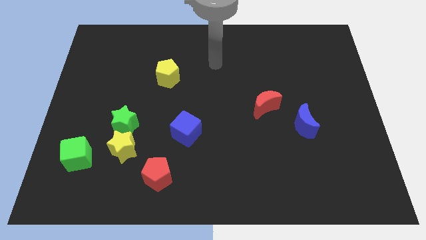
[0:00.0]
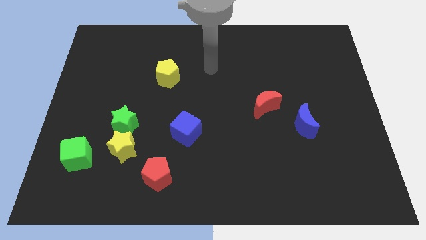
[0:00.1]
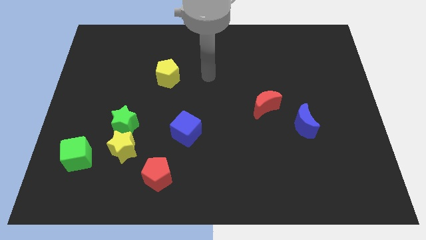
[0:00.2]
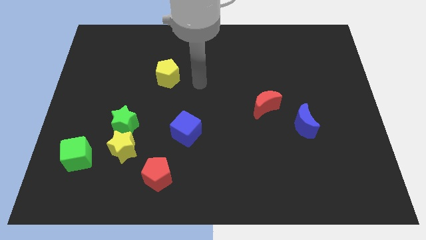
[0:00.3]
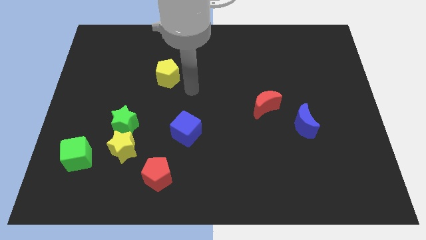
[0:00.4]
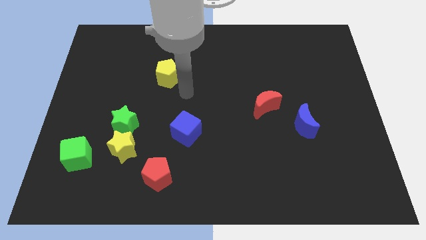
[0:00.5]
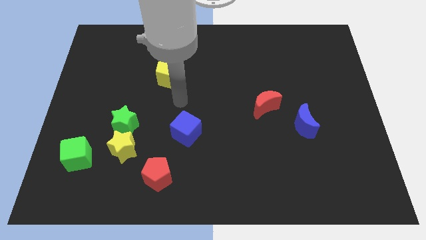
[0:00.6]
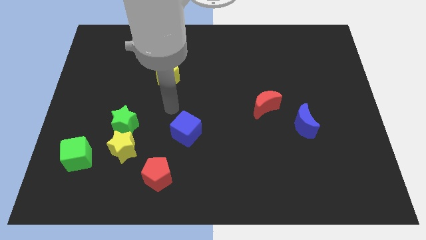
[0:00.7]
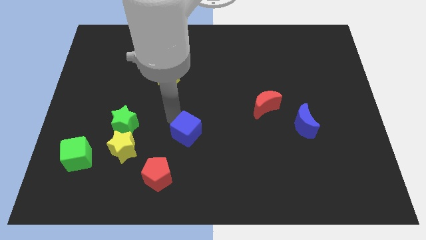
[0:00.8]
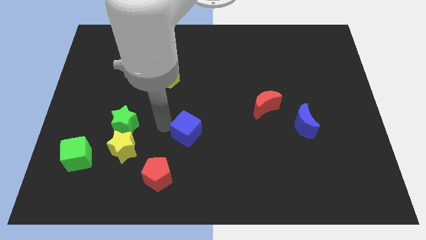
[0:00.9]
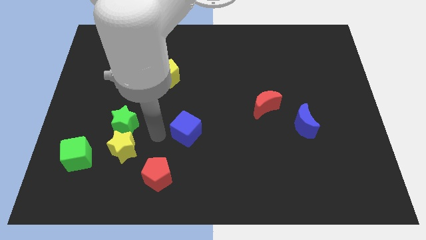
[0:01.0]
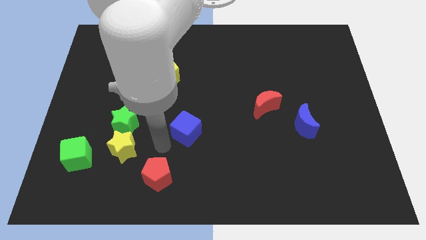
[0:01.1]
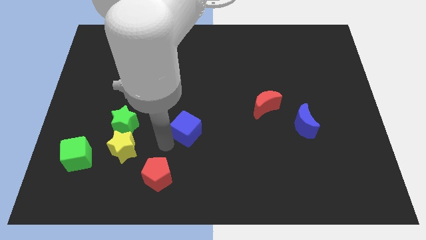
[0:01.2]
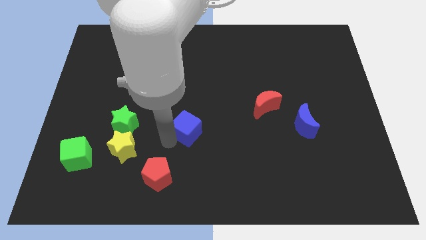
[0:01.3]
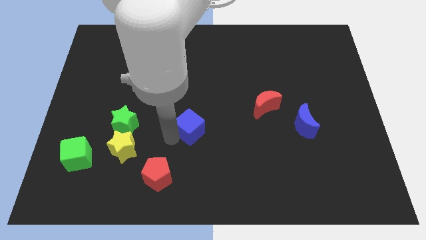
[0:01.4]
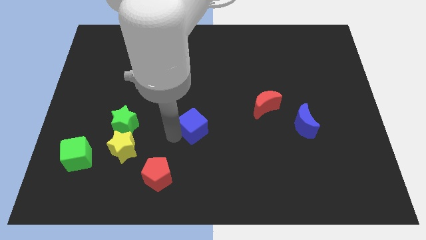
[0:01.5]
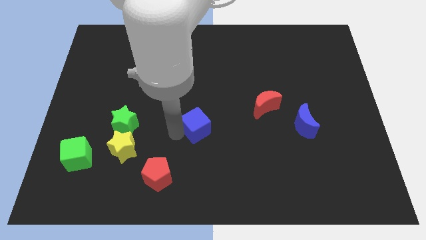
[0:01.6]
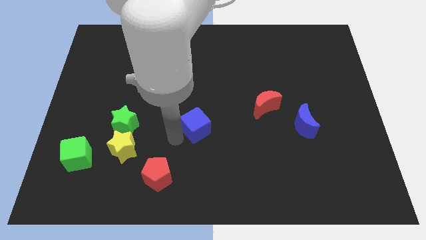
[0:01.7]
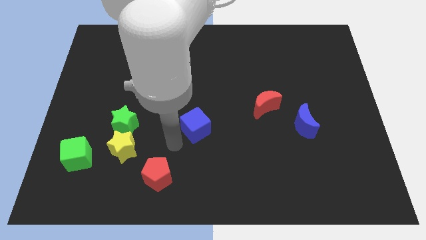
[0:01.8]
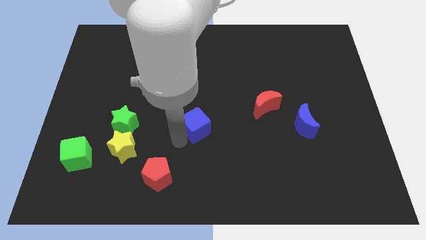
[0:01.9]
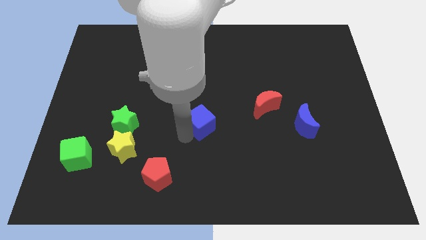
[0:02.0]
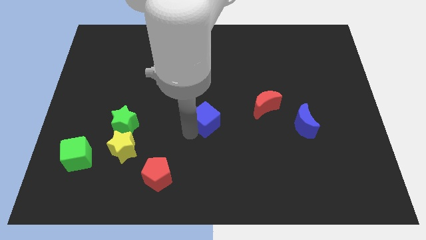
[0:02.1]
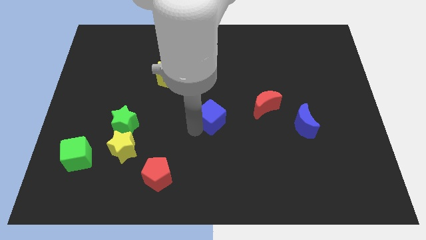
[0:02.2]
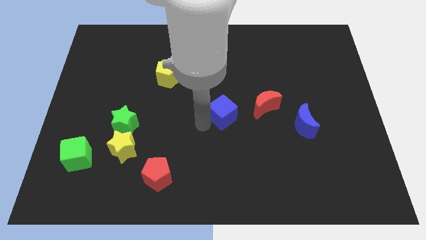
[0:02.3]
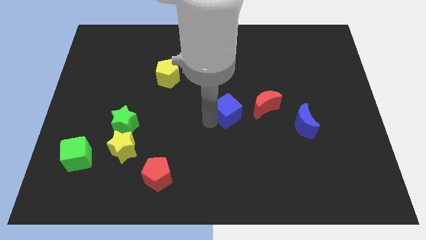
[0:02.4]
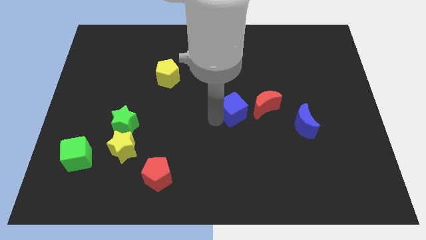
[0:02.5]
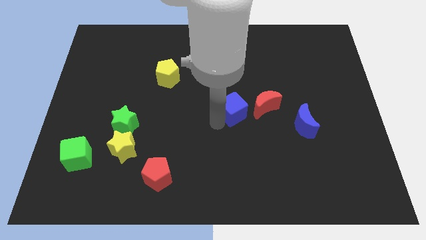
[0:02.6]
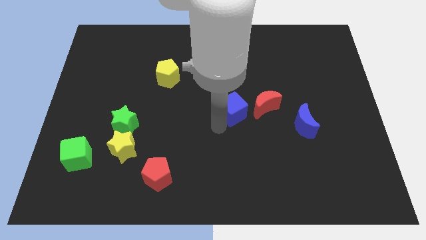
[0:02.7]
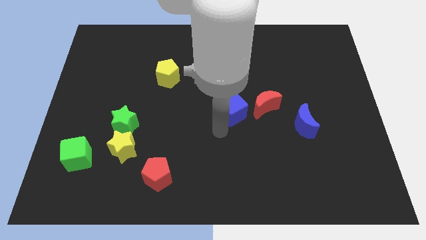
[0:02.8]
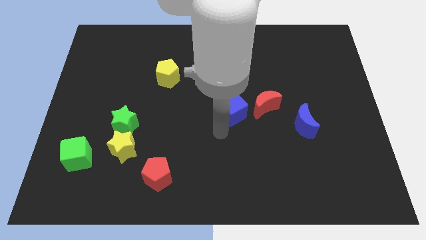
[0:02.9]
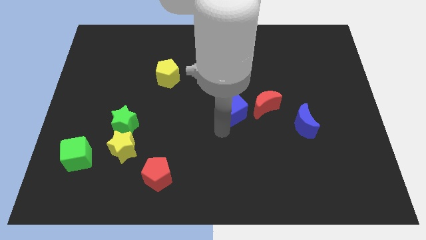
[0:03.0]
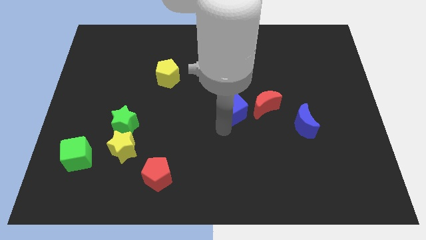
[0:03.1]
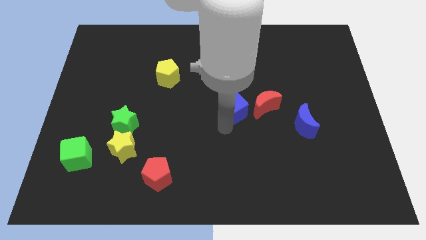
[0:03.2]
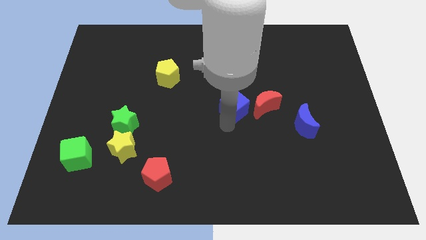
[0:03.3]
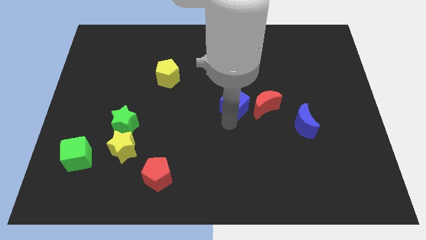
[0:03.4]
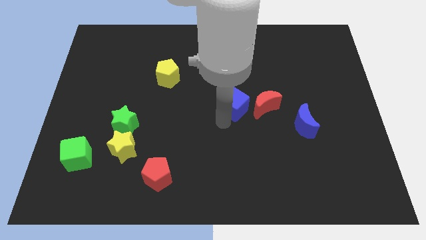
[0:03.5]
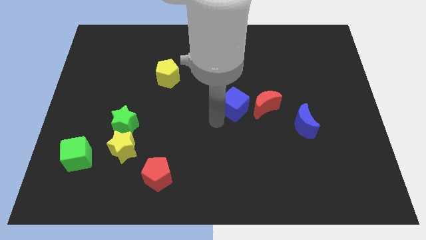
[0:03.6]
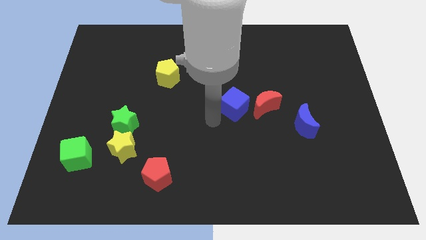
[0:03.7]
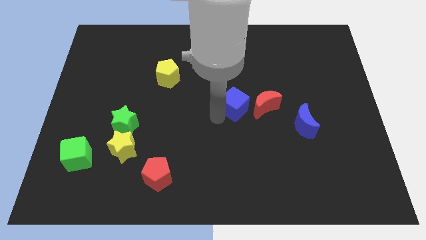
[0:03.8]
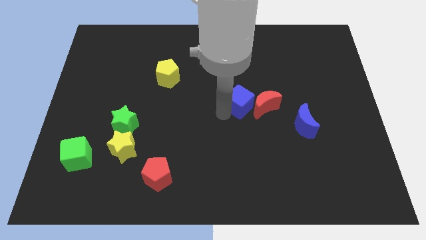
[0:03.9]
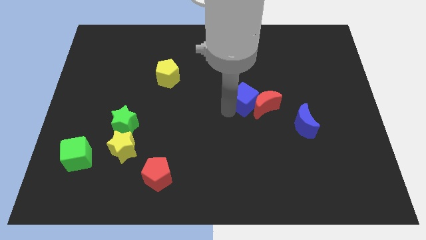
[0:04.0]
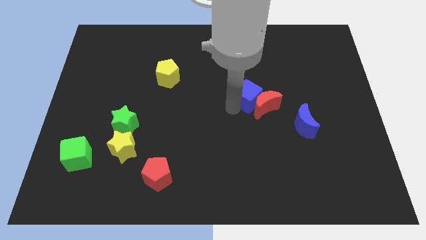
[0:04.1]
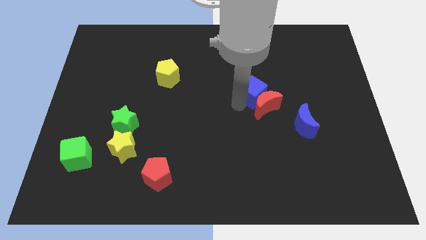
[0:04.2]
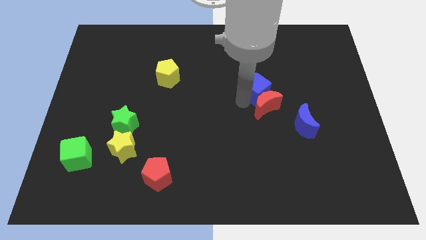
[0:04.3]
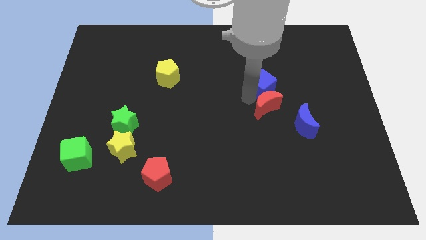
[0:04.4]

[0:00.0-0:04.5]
slide the blue cube up and to the right

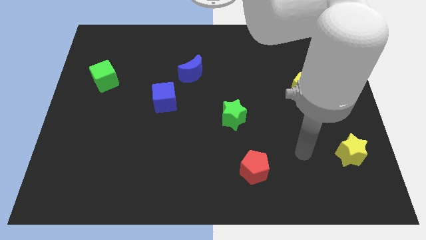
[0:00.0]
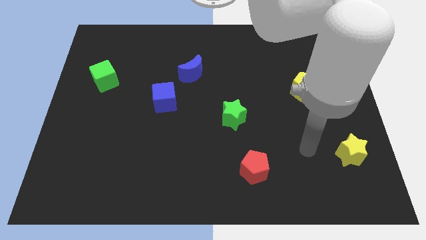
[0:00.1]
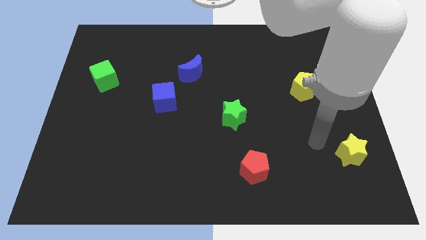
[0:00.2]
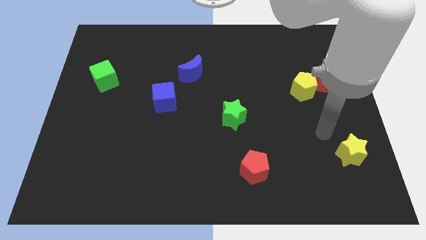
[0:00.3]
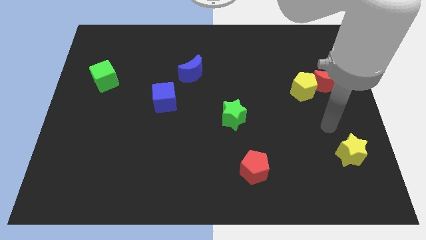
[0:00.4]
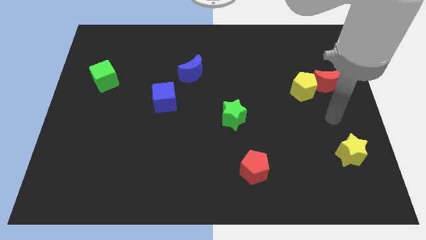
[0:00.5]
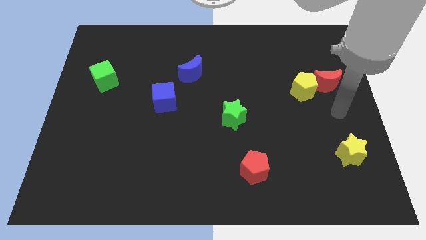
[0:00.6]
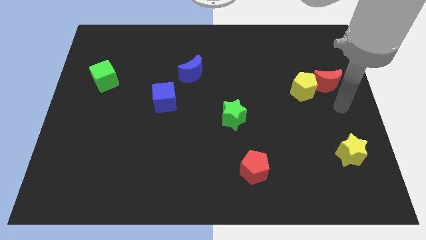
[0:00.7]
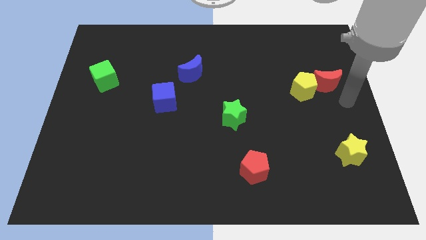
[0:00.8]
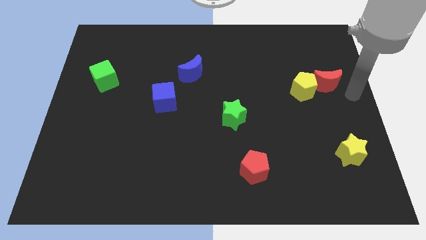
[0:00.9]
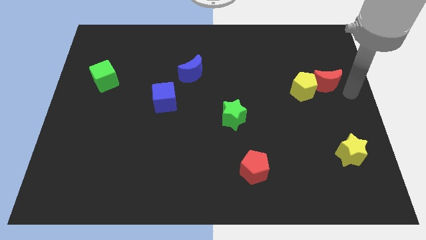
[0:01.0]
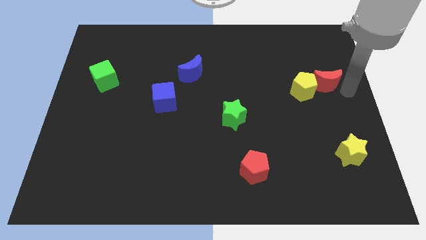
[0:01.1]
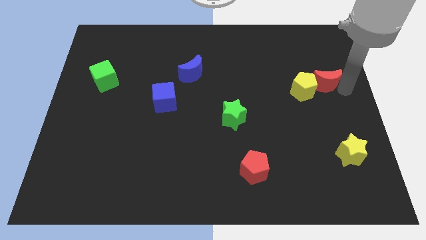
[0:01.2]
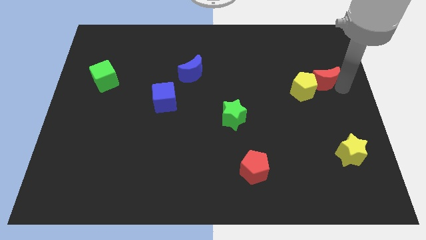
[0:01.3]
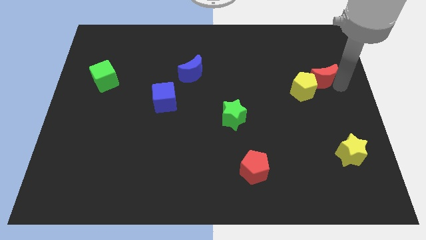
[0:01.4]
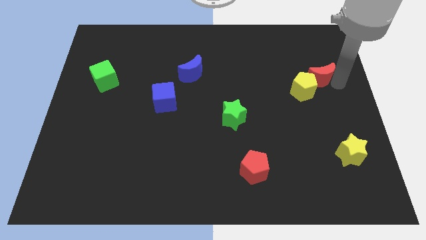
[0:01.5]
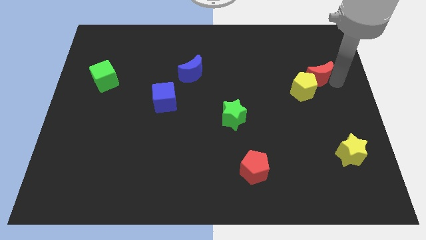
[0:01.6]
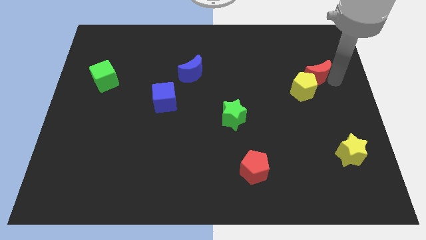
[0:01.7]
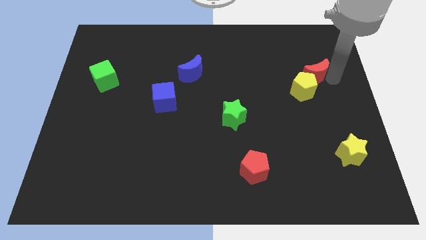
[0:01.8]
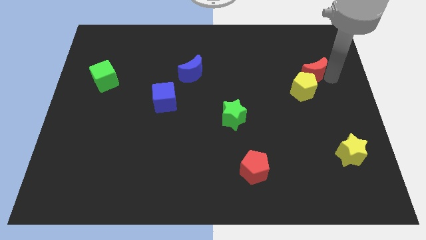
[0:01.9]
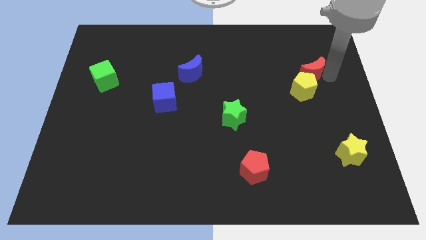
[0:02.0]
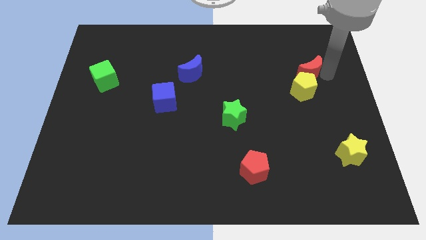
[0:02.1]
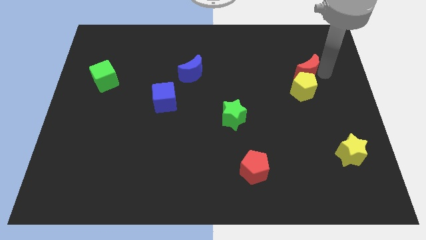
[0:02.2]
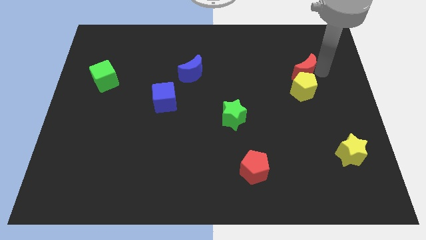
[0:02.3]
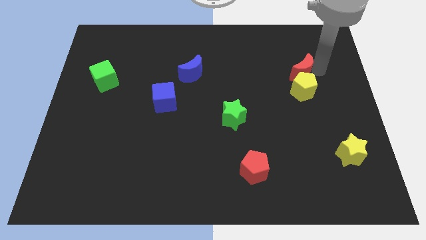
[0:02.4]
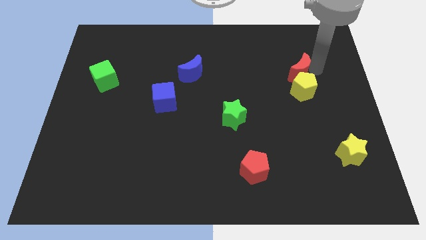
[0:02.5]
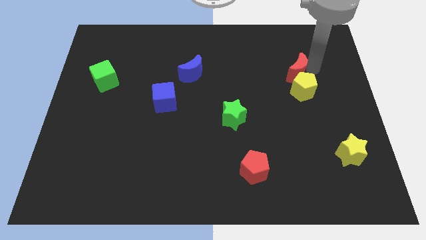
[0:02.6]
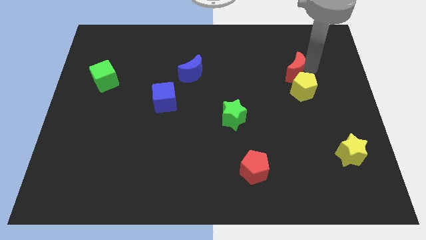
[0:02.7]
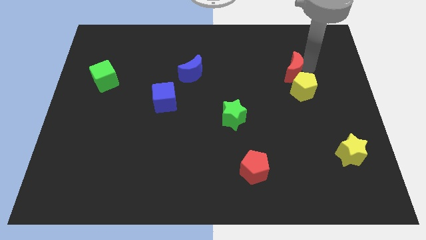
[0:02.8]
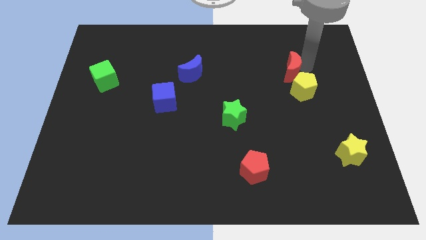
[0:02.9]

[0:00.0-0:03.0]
push the red moon a little bit to the left

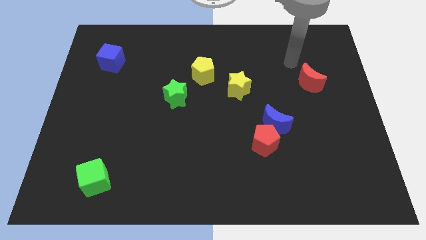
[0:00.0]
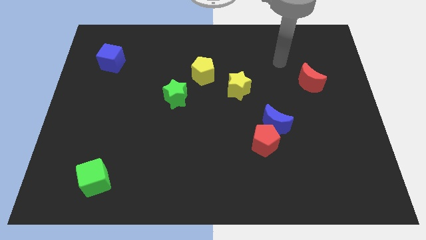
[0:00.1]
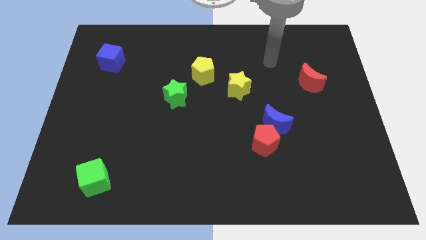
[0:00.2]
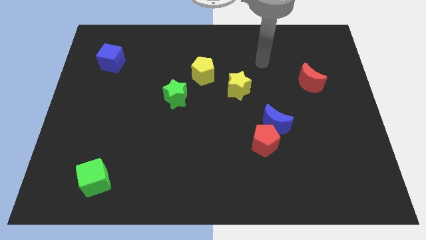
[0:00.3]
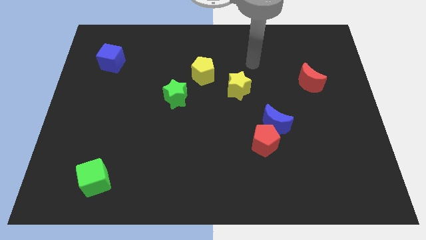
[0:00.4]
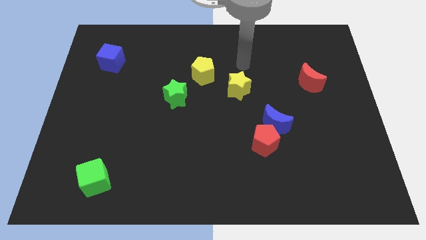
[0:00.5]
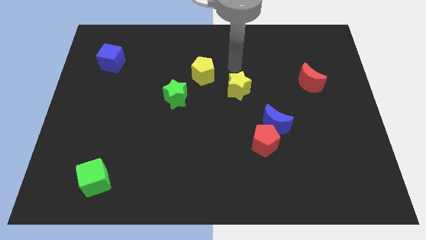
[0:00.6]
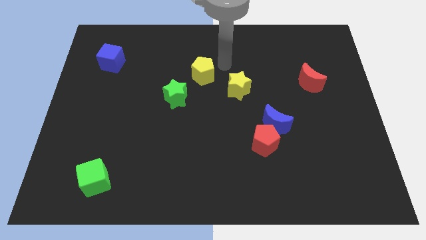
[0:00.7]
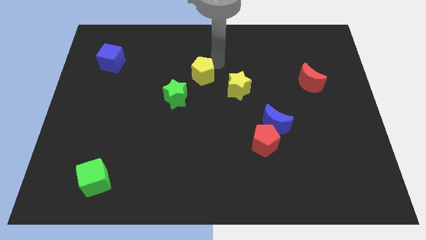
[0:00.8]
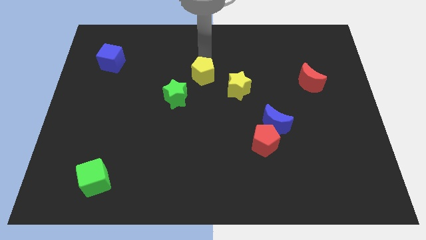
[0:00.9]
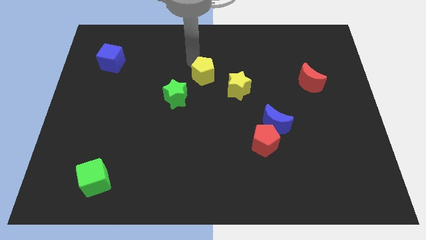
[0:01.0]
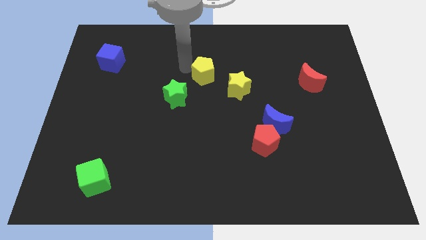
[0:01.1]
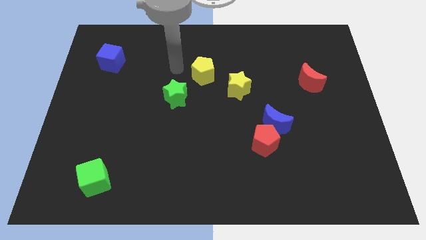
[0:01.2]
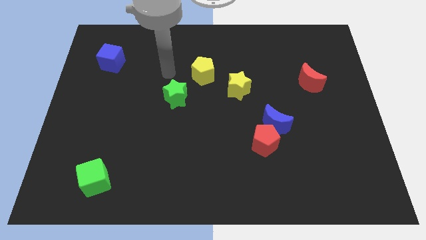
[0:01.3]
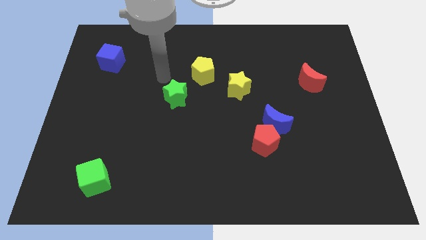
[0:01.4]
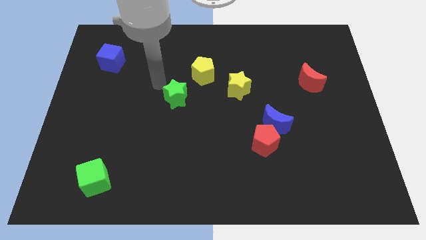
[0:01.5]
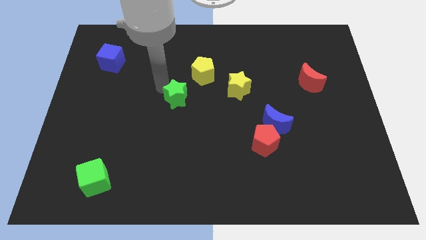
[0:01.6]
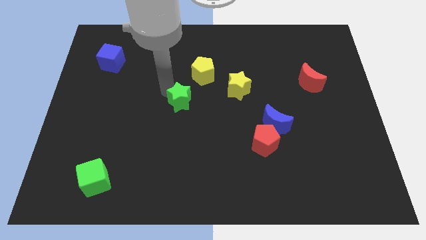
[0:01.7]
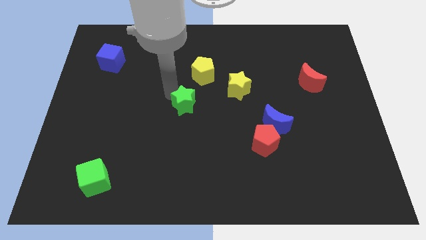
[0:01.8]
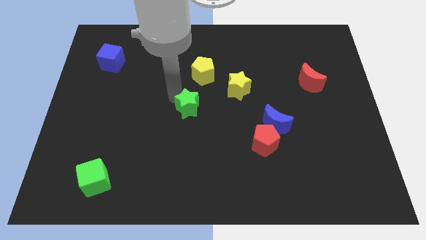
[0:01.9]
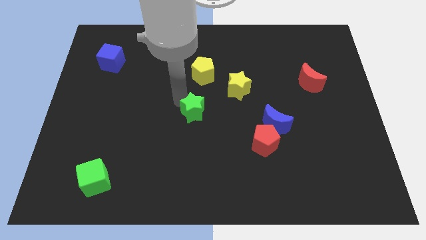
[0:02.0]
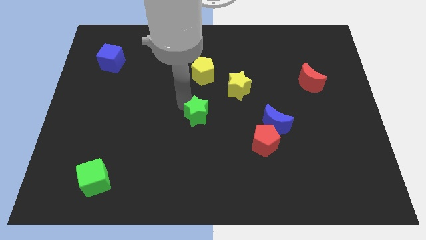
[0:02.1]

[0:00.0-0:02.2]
push the green star a little downwards and then right
